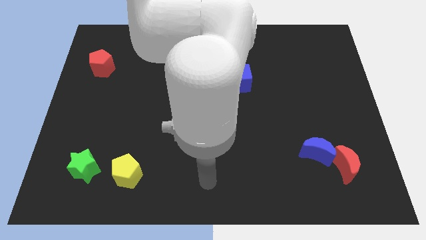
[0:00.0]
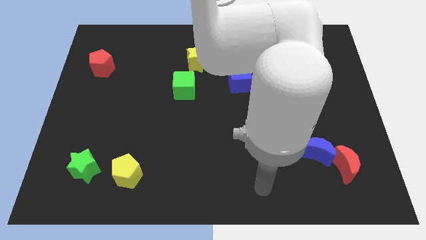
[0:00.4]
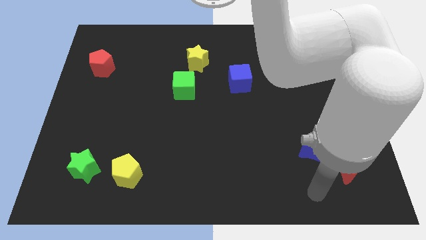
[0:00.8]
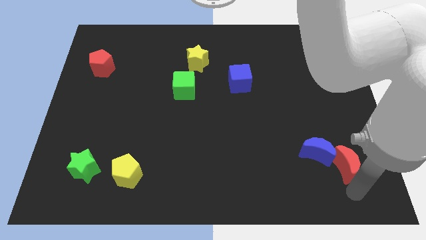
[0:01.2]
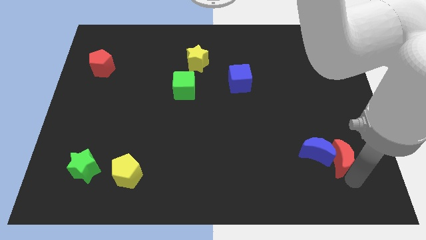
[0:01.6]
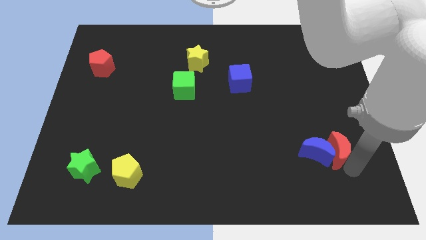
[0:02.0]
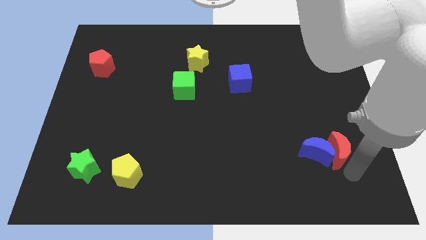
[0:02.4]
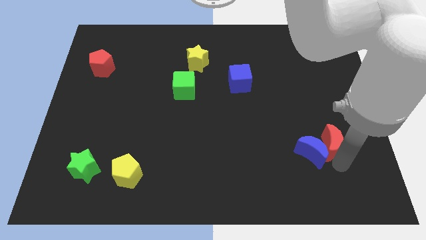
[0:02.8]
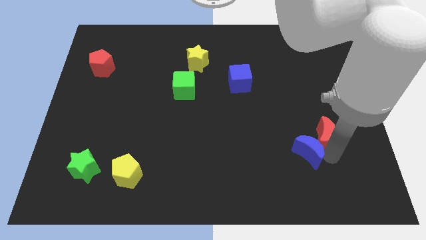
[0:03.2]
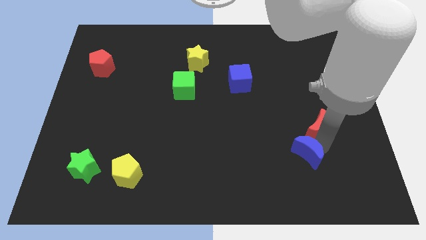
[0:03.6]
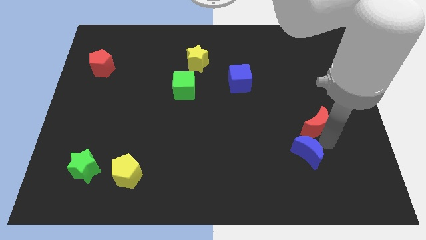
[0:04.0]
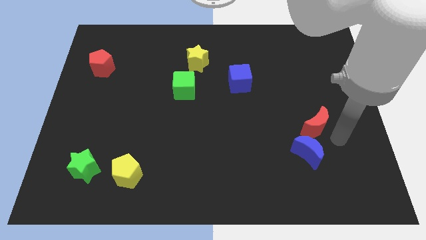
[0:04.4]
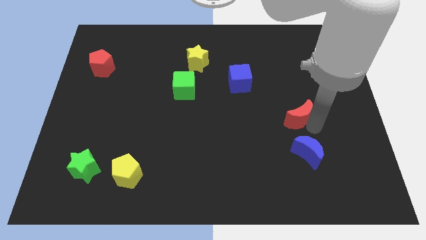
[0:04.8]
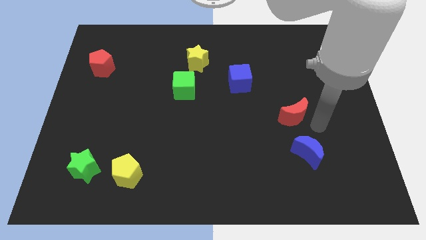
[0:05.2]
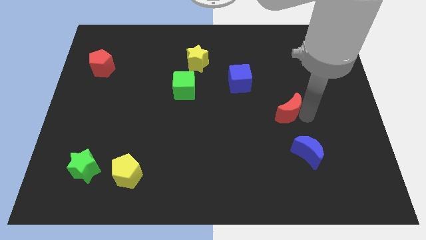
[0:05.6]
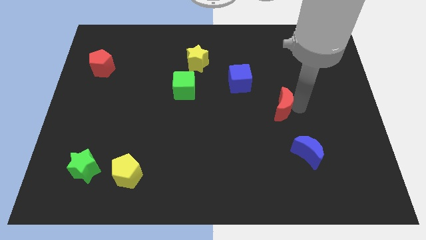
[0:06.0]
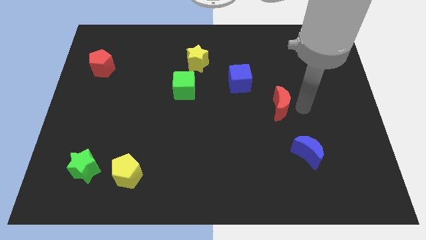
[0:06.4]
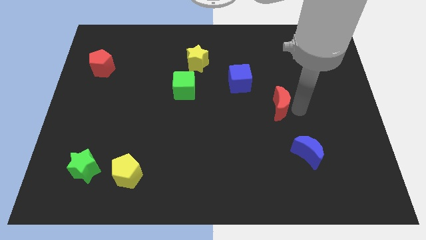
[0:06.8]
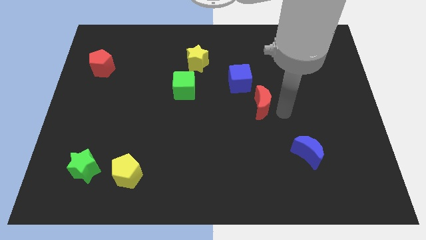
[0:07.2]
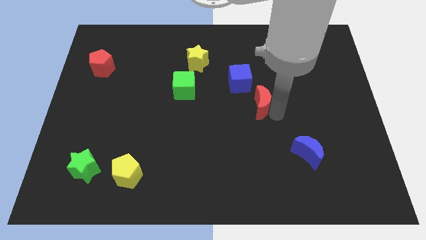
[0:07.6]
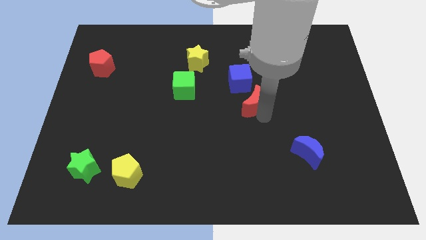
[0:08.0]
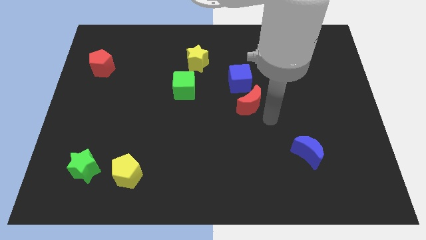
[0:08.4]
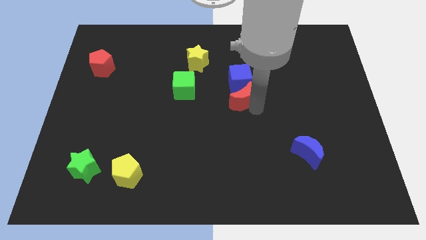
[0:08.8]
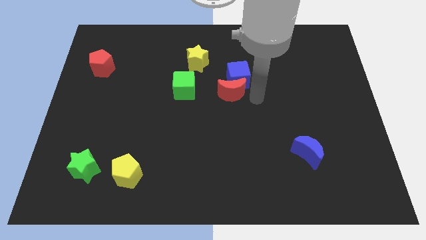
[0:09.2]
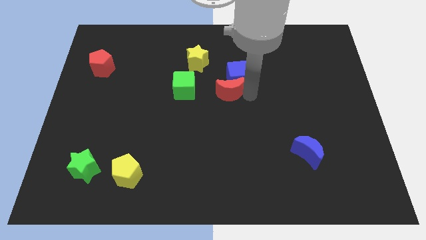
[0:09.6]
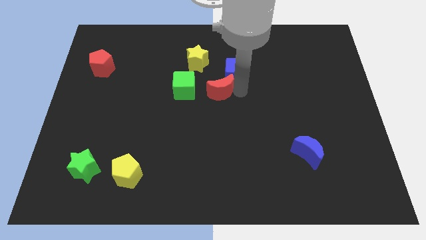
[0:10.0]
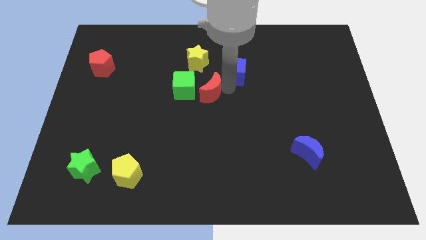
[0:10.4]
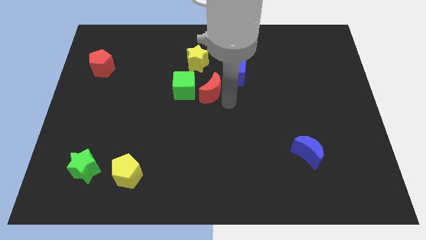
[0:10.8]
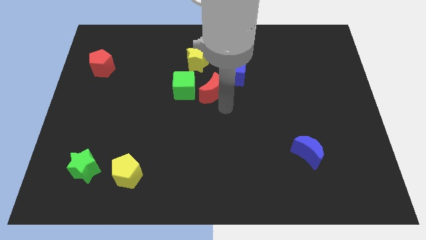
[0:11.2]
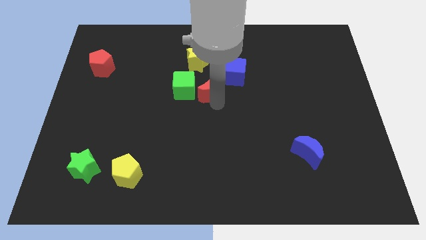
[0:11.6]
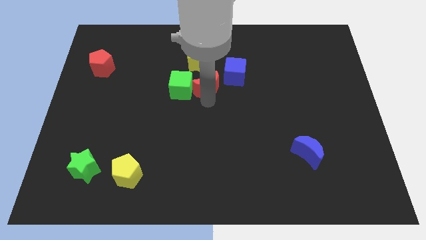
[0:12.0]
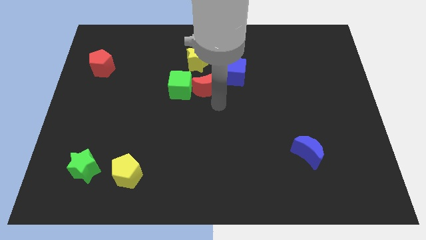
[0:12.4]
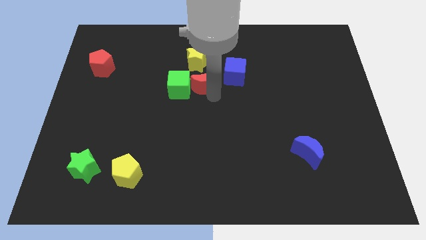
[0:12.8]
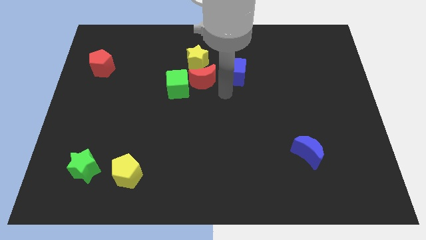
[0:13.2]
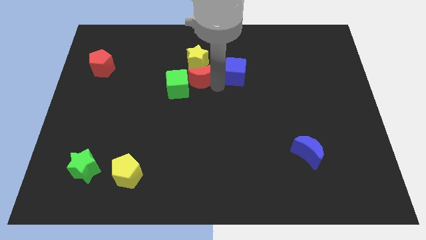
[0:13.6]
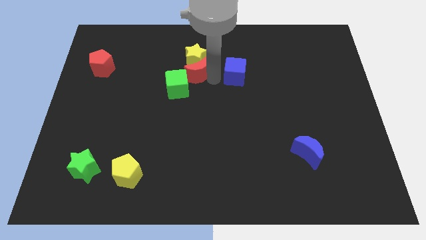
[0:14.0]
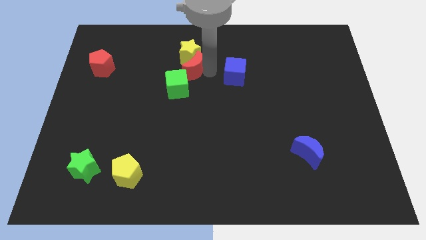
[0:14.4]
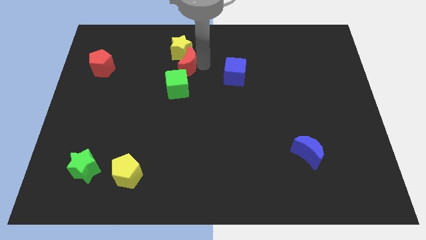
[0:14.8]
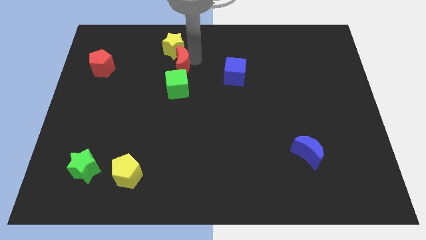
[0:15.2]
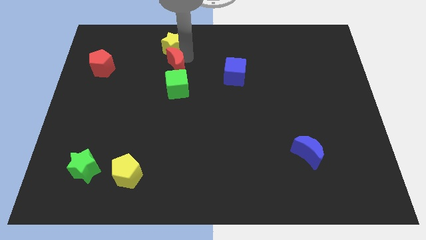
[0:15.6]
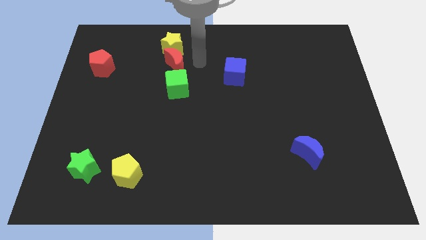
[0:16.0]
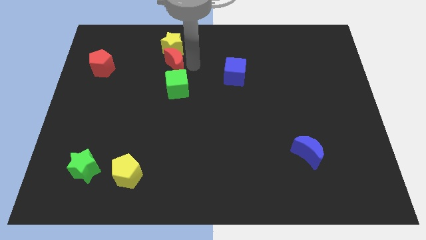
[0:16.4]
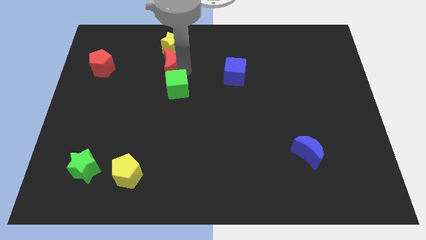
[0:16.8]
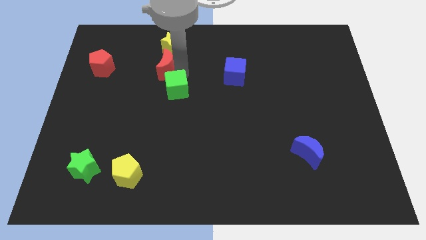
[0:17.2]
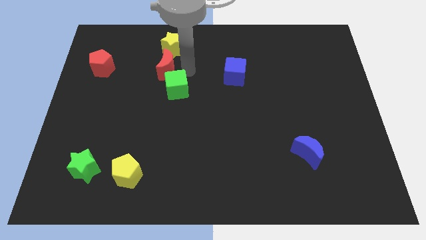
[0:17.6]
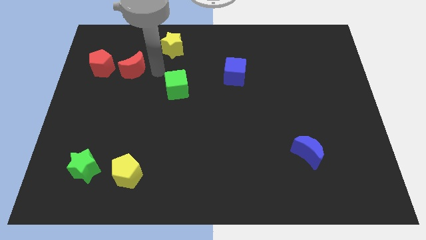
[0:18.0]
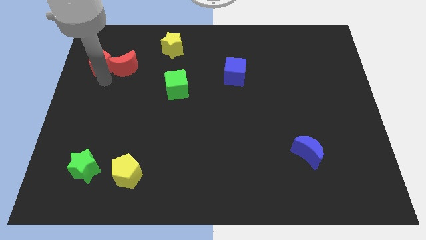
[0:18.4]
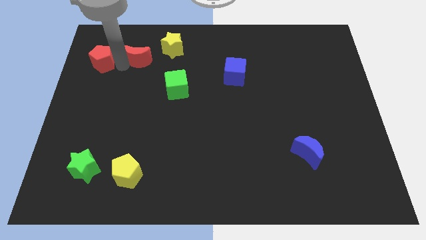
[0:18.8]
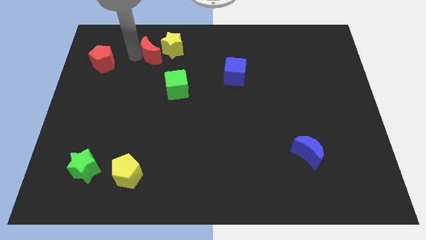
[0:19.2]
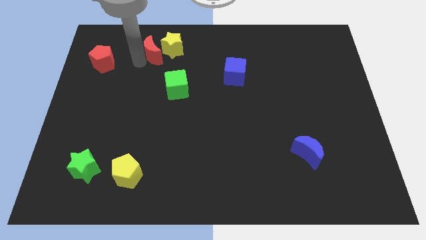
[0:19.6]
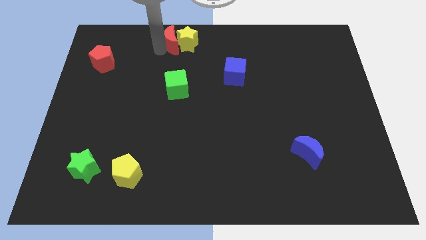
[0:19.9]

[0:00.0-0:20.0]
move the red moon to the top side

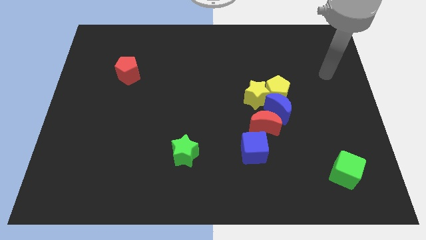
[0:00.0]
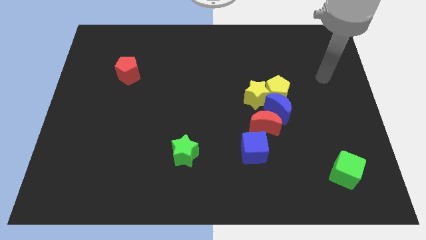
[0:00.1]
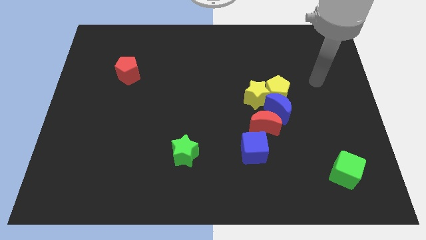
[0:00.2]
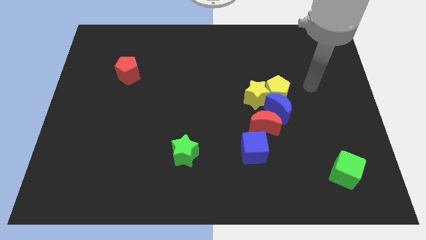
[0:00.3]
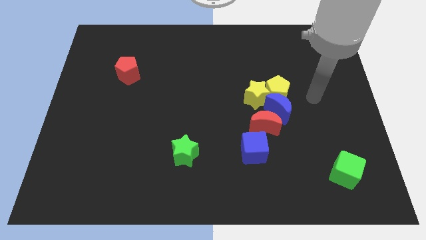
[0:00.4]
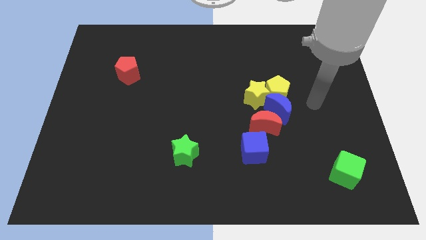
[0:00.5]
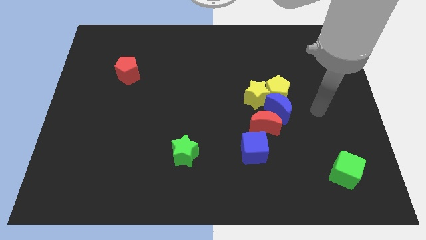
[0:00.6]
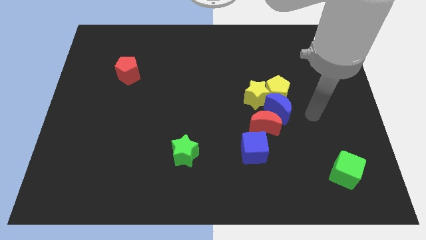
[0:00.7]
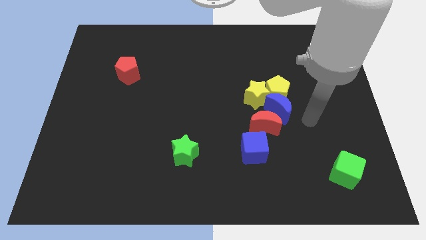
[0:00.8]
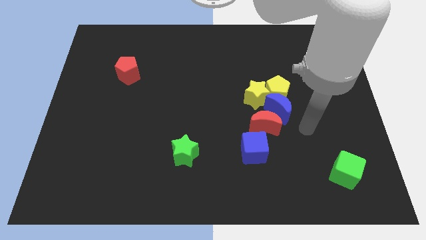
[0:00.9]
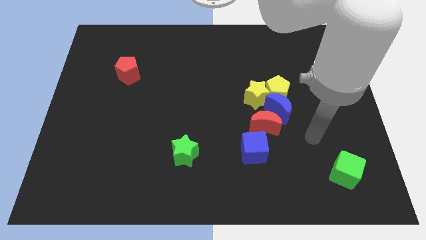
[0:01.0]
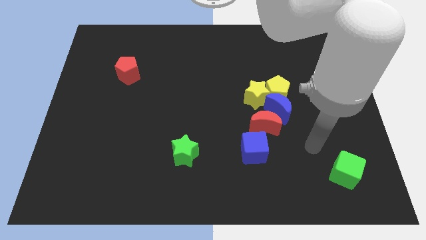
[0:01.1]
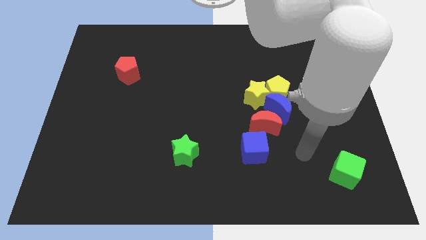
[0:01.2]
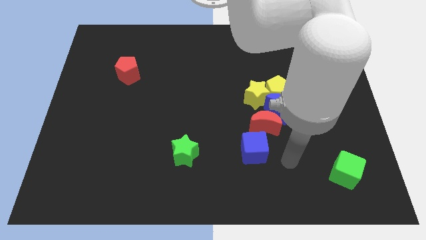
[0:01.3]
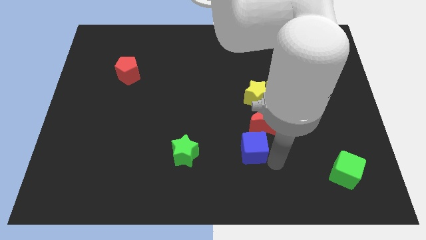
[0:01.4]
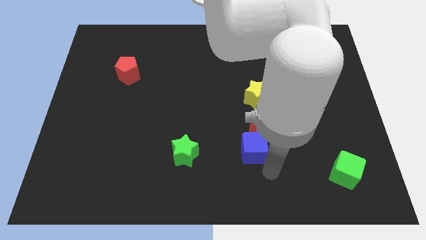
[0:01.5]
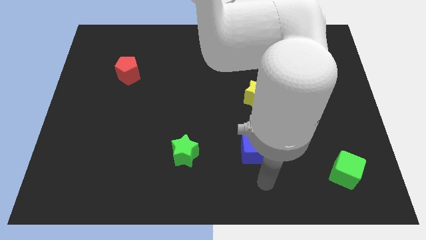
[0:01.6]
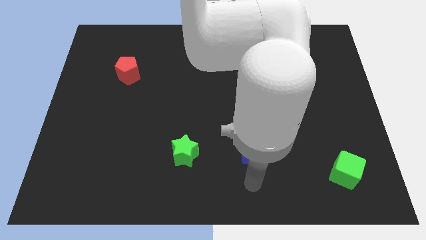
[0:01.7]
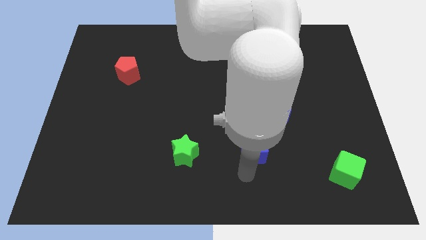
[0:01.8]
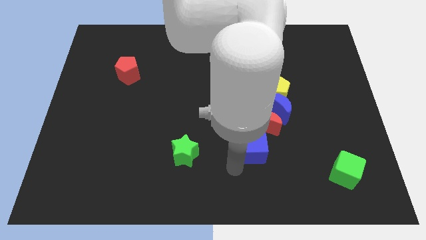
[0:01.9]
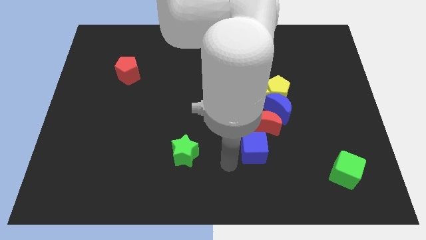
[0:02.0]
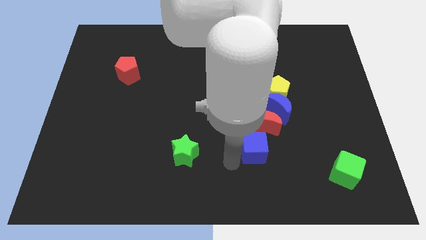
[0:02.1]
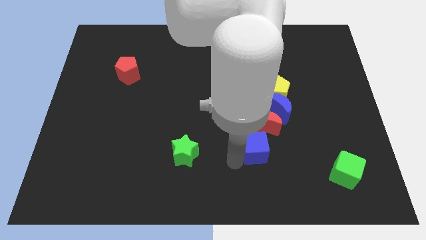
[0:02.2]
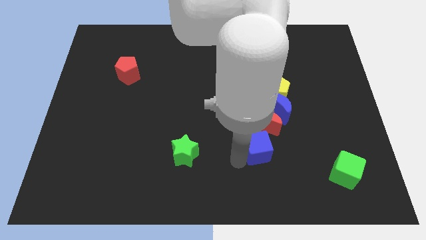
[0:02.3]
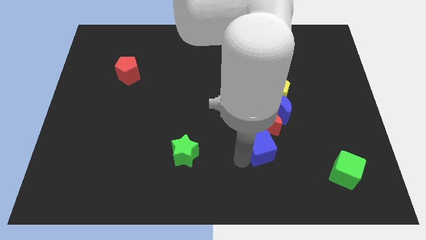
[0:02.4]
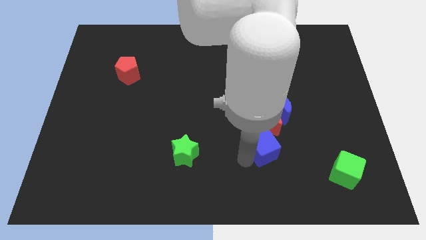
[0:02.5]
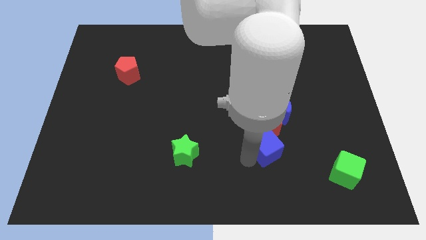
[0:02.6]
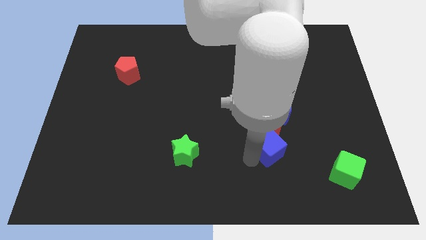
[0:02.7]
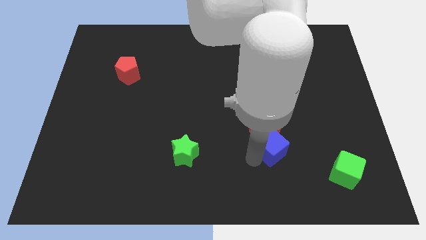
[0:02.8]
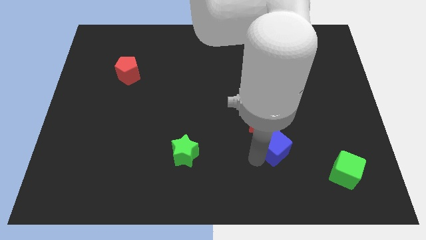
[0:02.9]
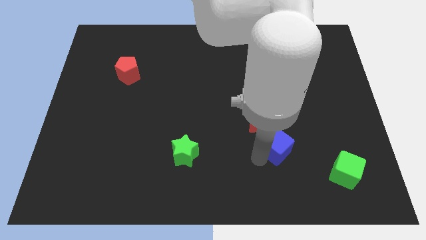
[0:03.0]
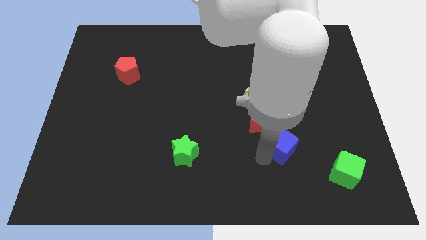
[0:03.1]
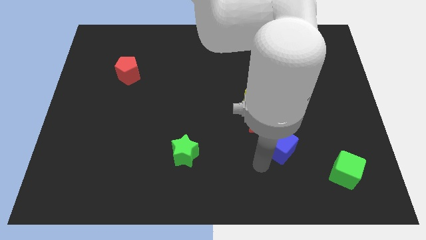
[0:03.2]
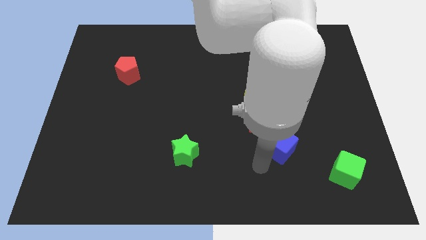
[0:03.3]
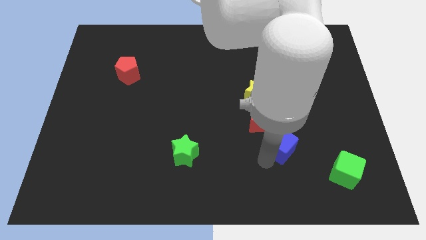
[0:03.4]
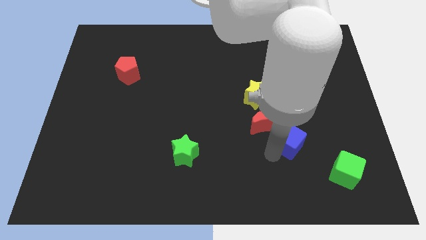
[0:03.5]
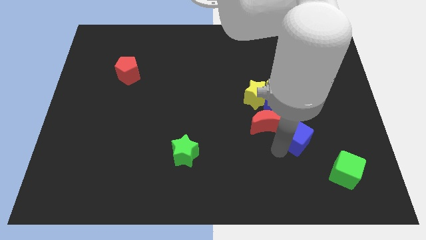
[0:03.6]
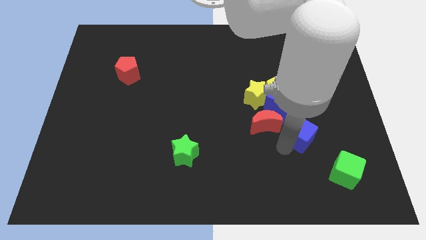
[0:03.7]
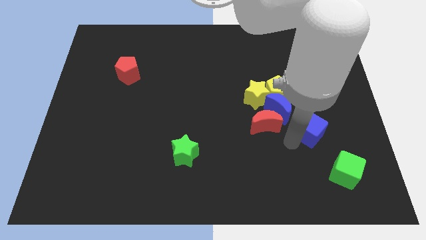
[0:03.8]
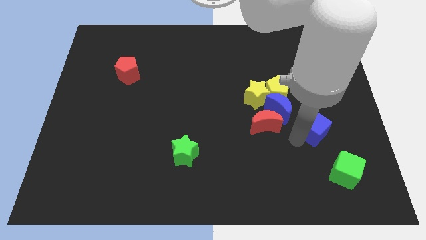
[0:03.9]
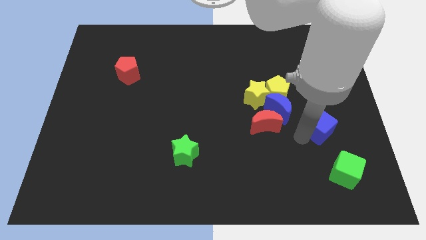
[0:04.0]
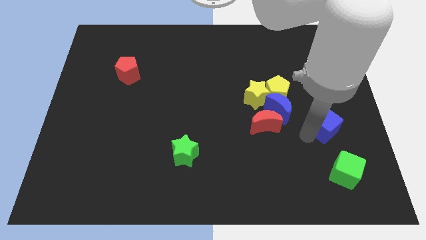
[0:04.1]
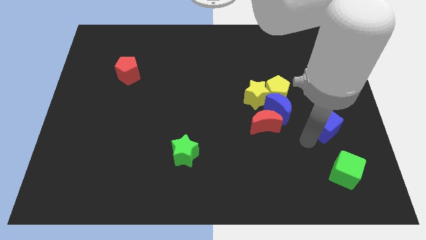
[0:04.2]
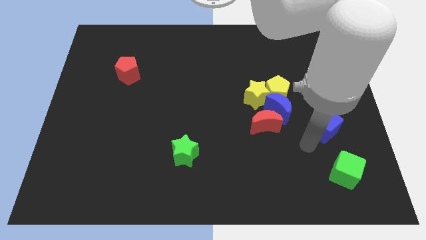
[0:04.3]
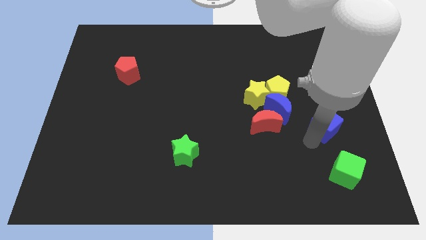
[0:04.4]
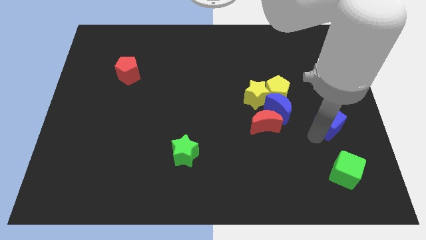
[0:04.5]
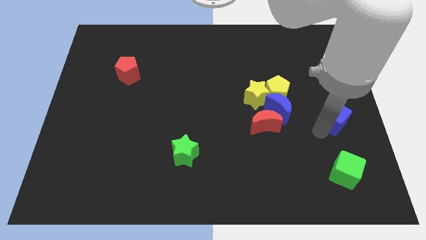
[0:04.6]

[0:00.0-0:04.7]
push the blue cube to the right side of the board
